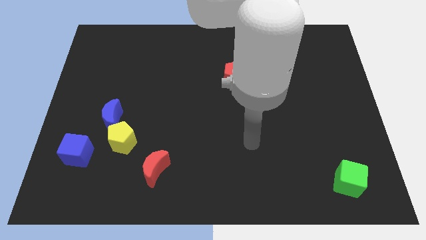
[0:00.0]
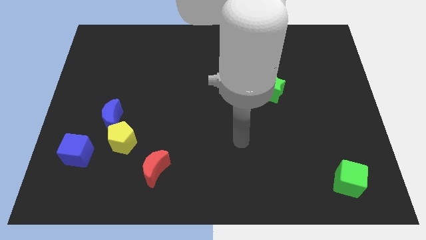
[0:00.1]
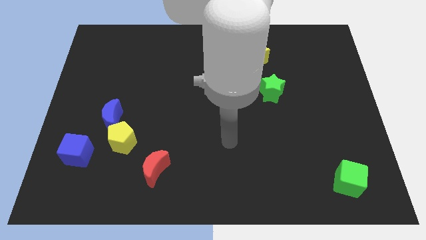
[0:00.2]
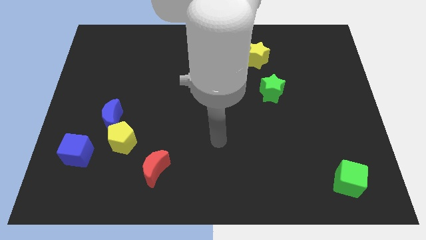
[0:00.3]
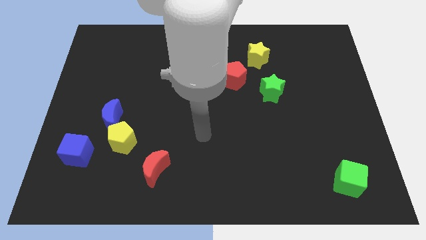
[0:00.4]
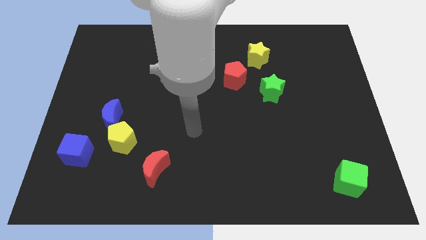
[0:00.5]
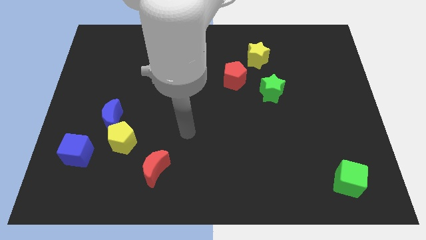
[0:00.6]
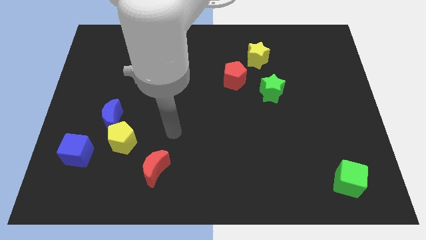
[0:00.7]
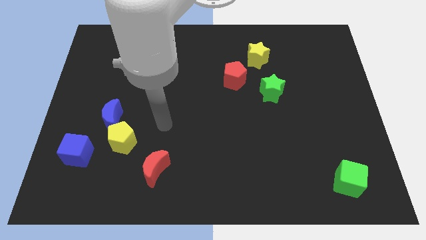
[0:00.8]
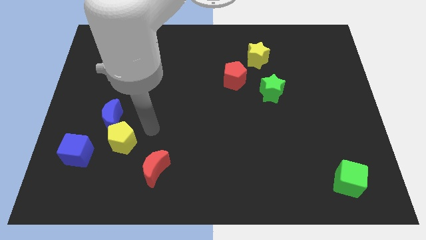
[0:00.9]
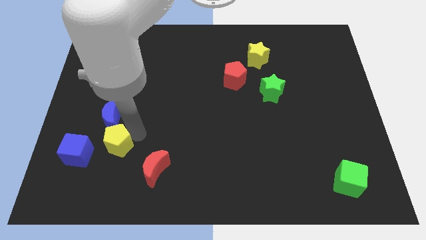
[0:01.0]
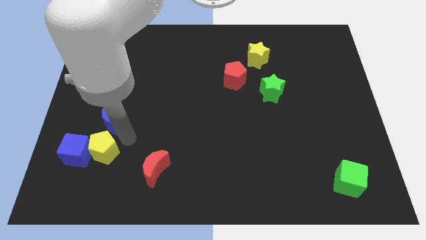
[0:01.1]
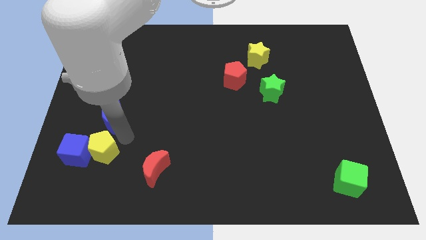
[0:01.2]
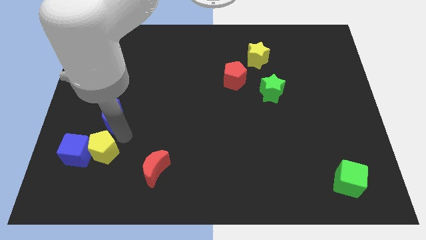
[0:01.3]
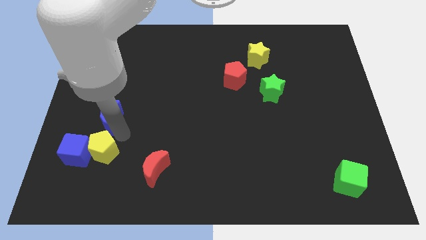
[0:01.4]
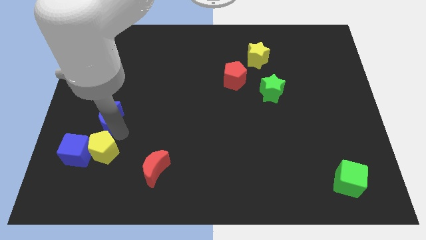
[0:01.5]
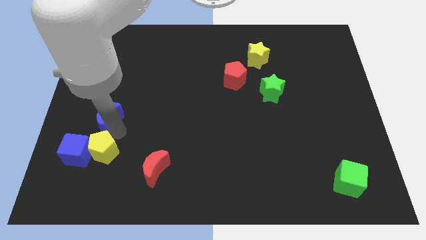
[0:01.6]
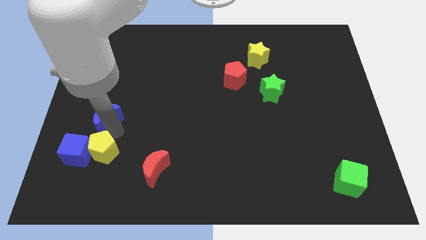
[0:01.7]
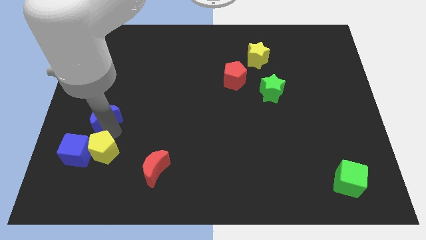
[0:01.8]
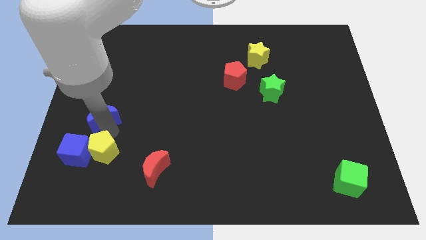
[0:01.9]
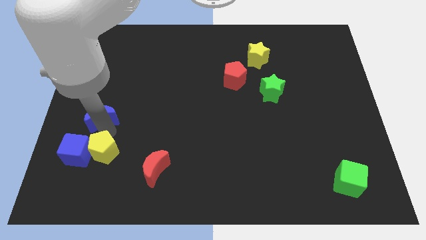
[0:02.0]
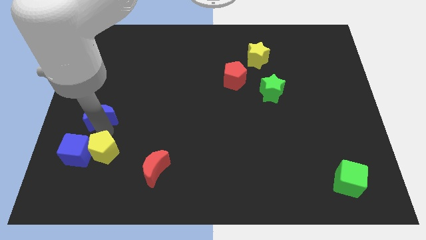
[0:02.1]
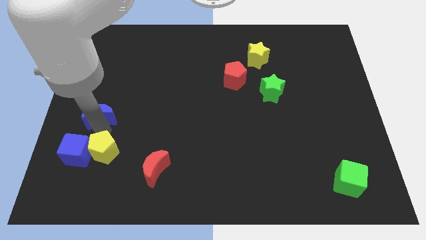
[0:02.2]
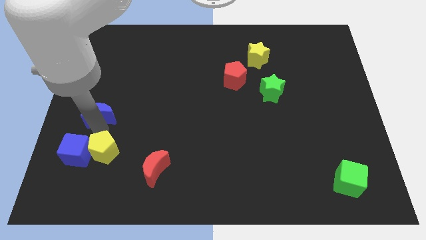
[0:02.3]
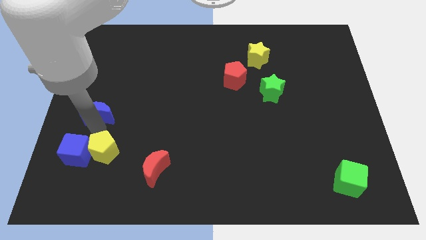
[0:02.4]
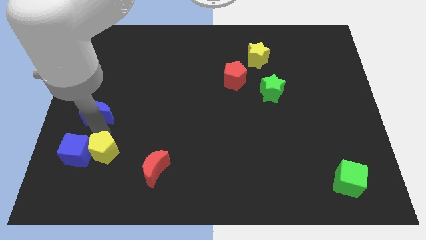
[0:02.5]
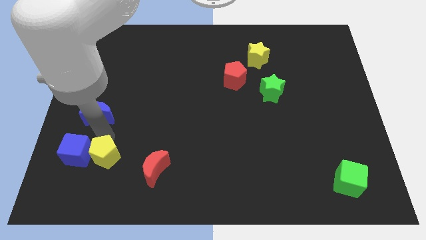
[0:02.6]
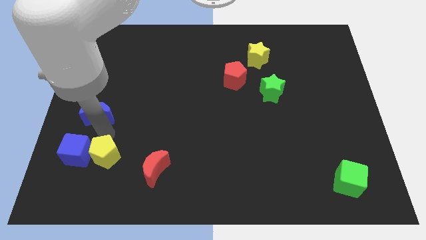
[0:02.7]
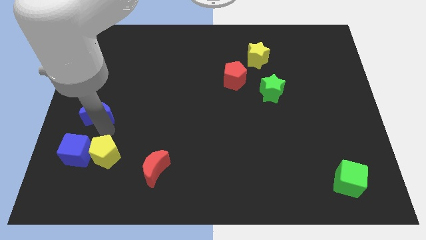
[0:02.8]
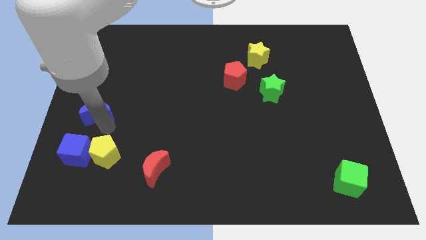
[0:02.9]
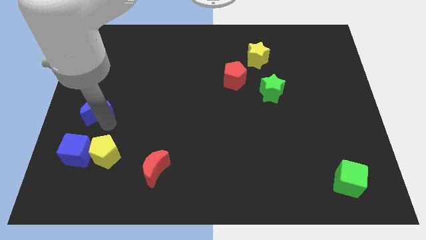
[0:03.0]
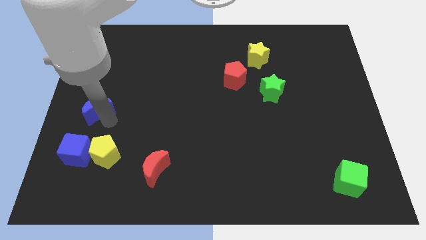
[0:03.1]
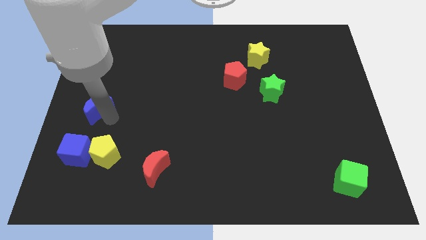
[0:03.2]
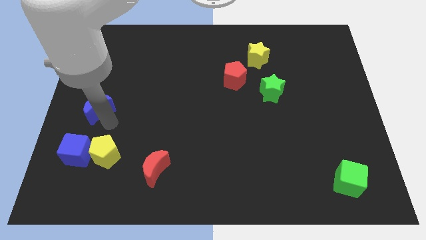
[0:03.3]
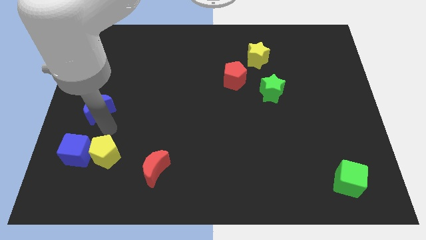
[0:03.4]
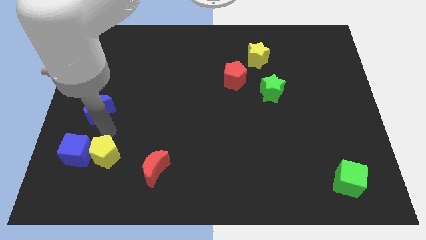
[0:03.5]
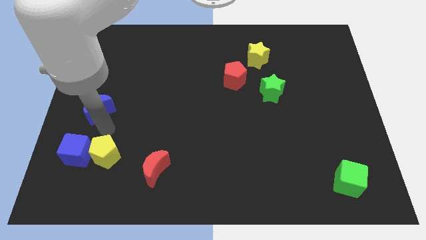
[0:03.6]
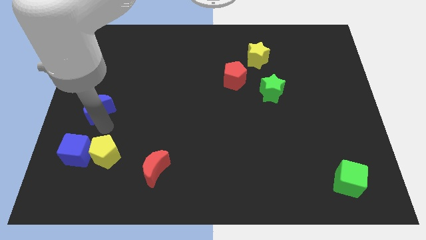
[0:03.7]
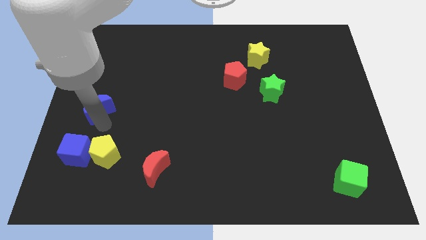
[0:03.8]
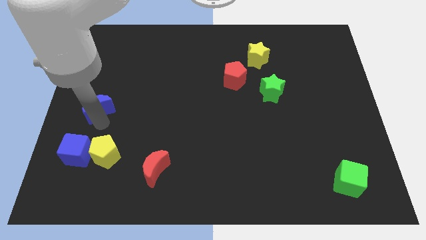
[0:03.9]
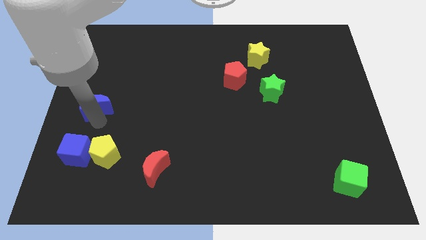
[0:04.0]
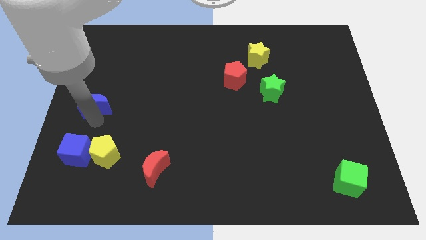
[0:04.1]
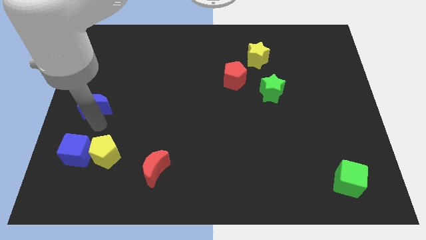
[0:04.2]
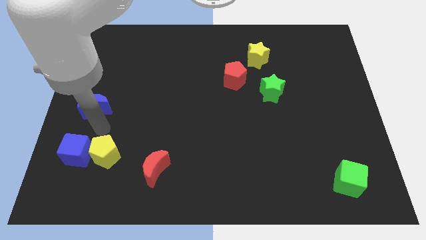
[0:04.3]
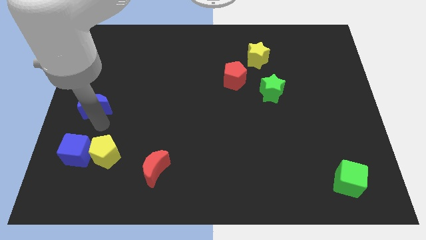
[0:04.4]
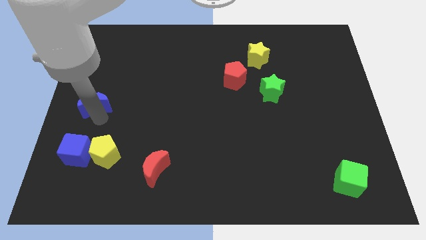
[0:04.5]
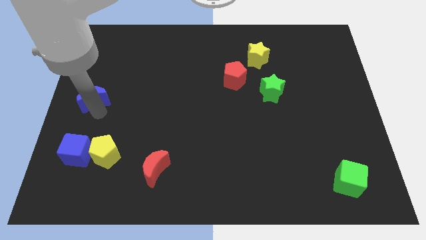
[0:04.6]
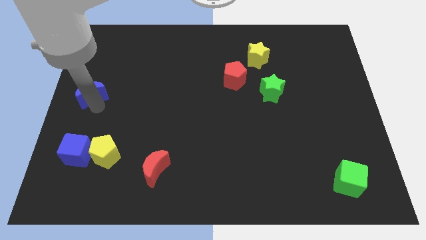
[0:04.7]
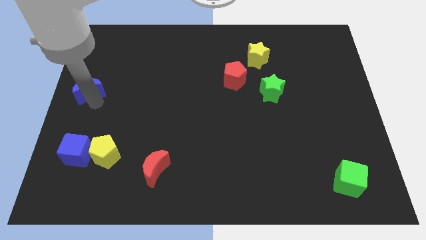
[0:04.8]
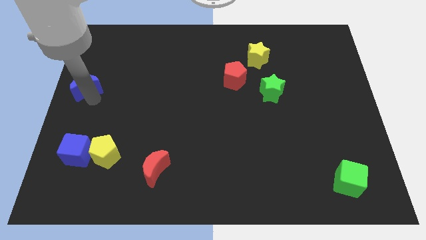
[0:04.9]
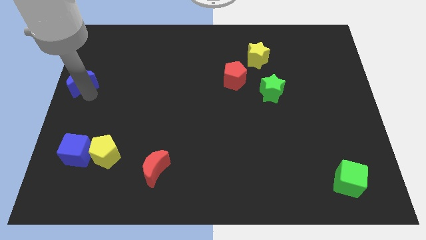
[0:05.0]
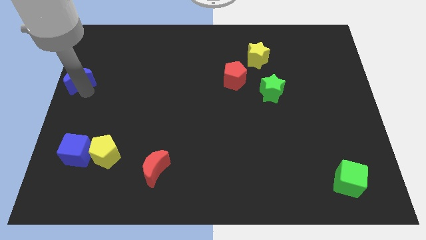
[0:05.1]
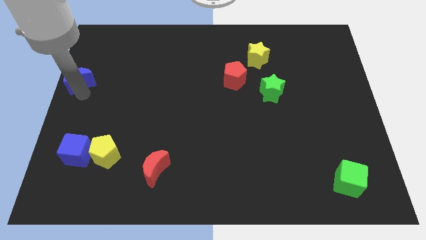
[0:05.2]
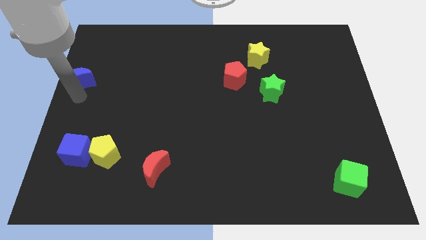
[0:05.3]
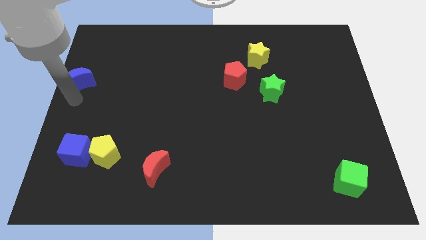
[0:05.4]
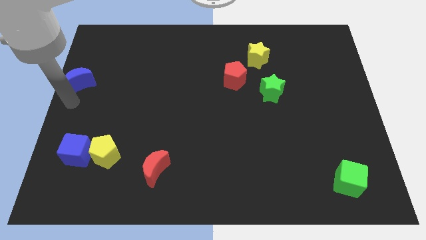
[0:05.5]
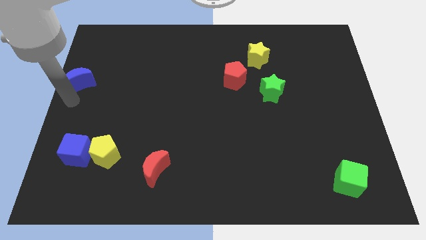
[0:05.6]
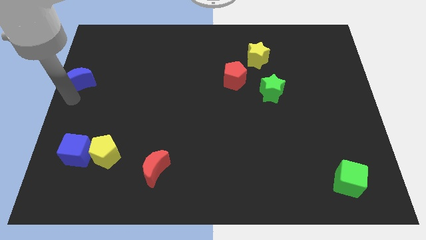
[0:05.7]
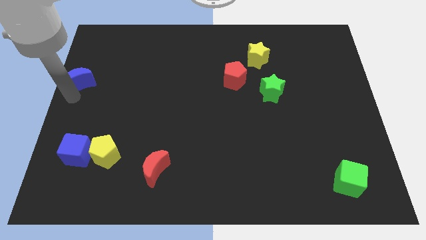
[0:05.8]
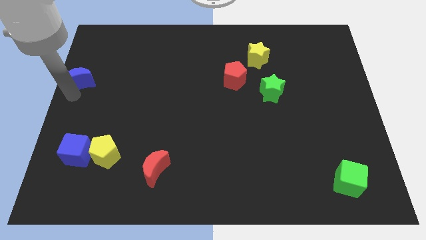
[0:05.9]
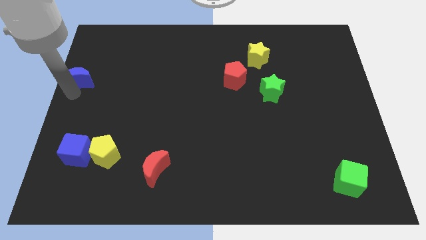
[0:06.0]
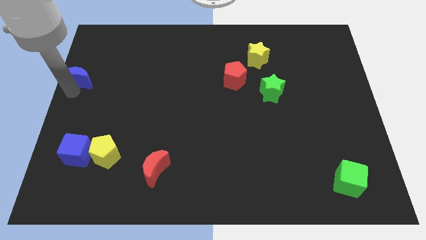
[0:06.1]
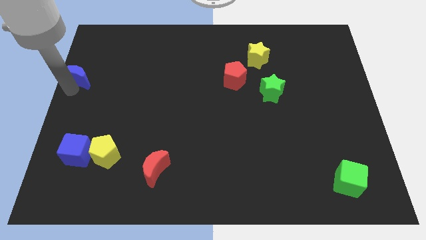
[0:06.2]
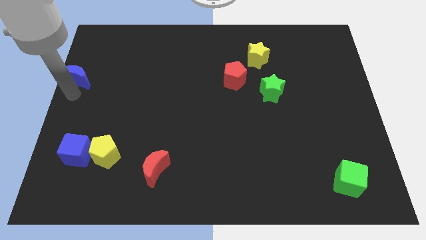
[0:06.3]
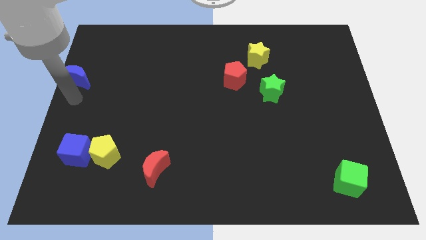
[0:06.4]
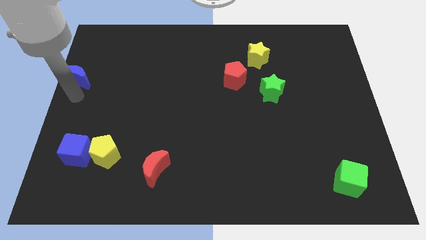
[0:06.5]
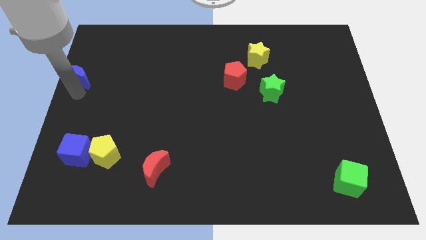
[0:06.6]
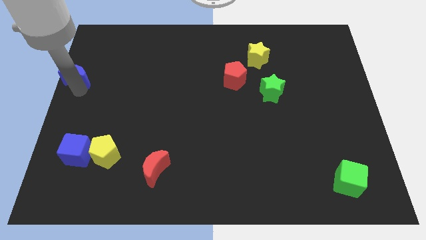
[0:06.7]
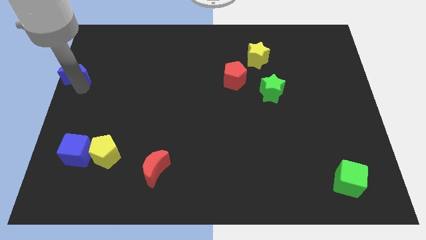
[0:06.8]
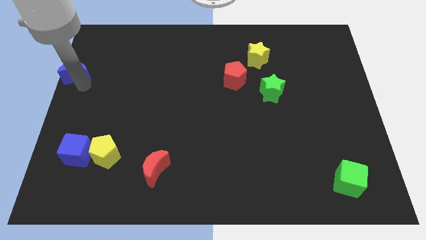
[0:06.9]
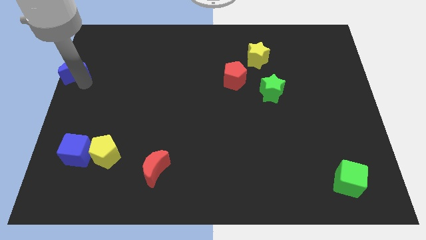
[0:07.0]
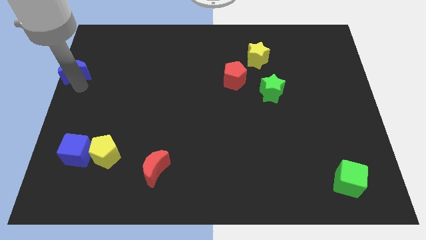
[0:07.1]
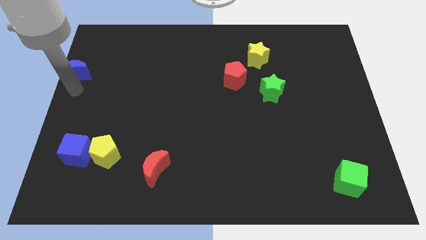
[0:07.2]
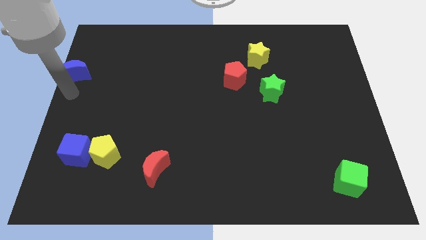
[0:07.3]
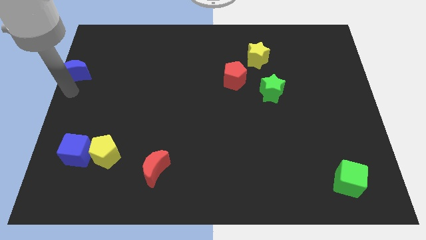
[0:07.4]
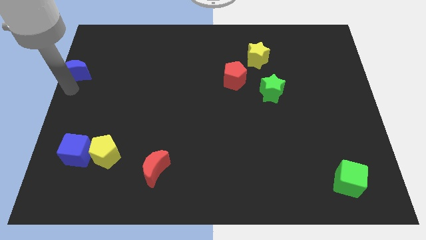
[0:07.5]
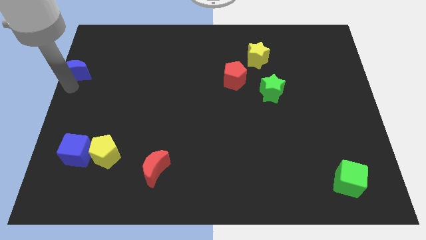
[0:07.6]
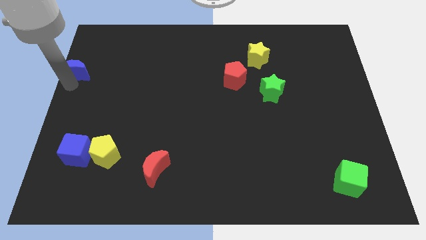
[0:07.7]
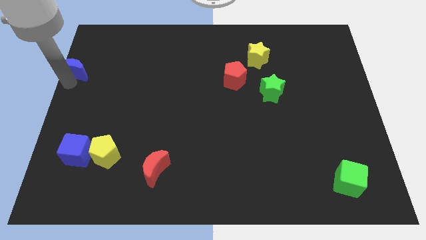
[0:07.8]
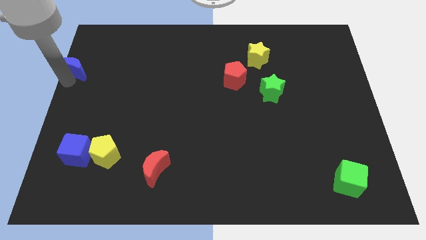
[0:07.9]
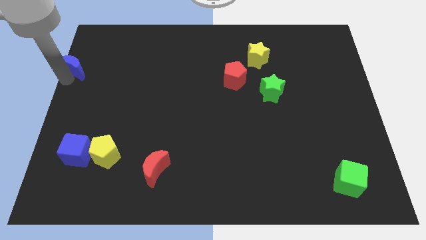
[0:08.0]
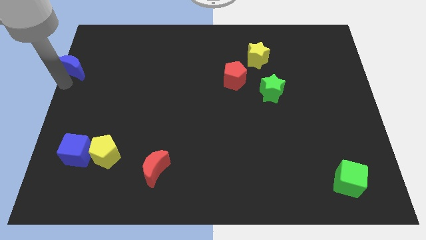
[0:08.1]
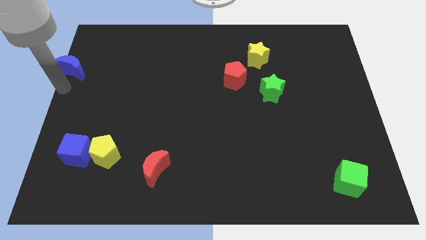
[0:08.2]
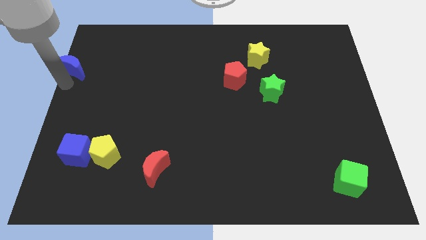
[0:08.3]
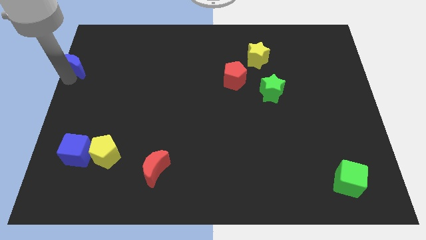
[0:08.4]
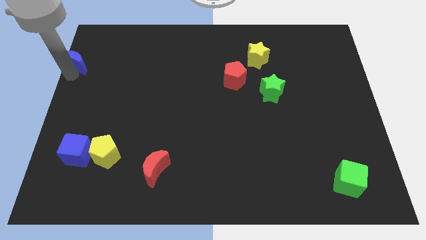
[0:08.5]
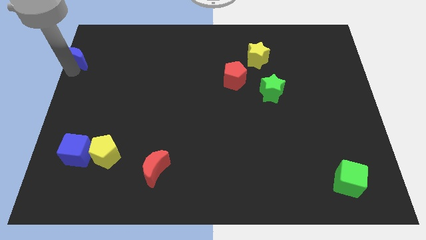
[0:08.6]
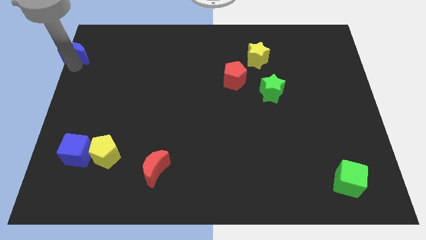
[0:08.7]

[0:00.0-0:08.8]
push the blue moon to the upper left corner
